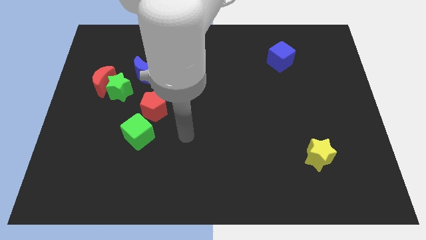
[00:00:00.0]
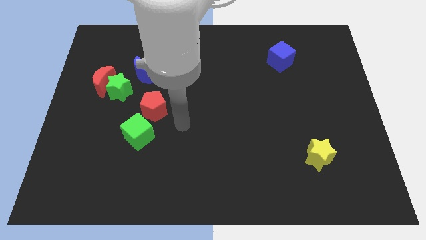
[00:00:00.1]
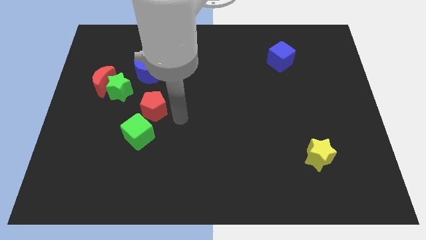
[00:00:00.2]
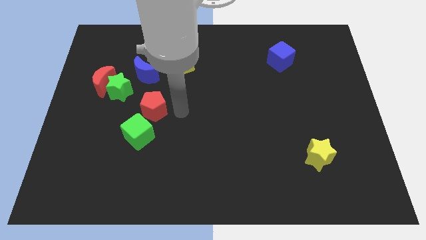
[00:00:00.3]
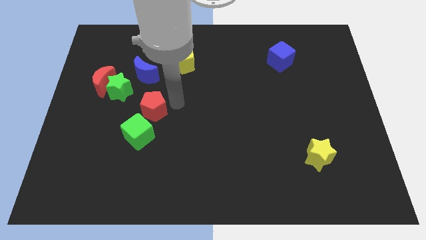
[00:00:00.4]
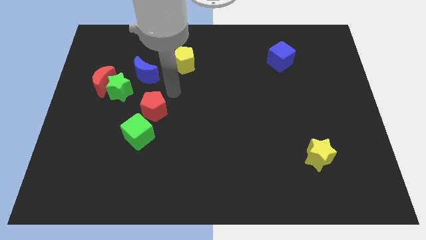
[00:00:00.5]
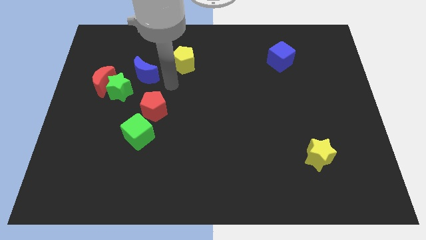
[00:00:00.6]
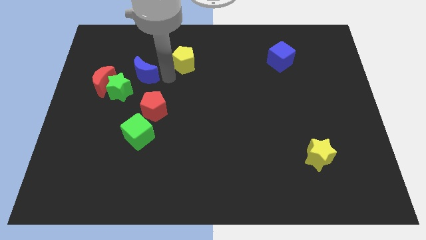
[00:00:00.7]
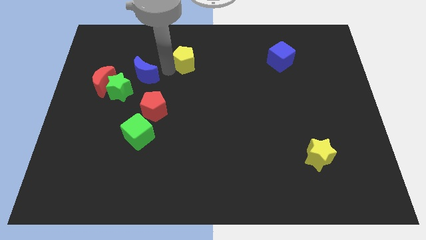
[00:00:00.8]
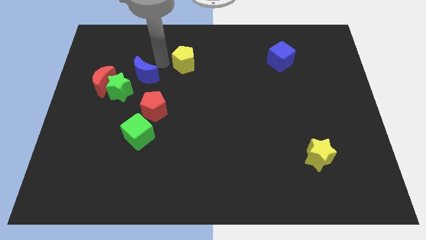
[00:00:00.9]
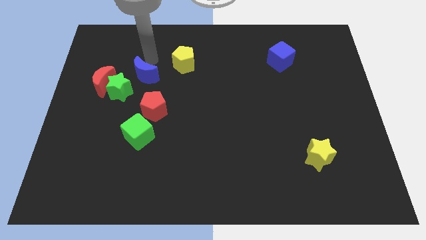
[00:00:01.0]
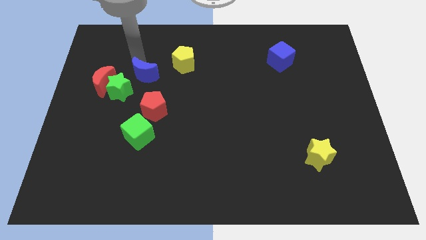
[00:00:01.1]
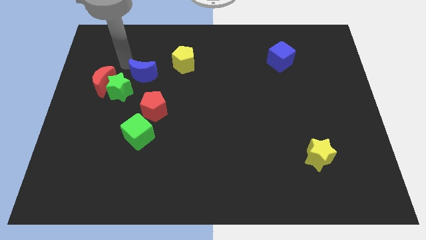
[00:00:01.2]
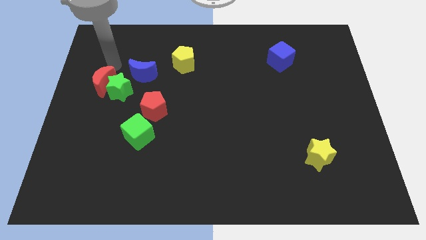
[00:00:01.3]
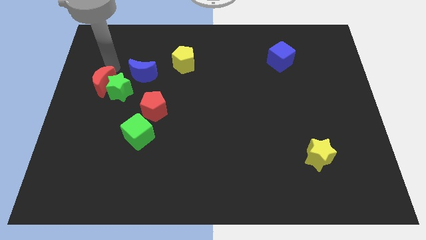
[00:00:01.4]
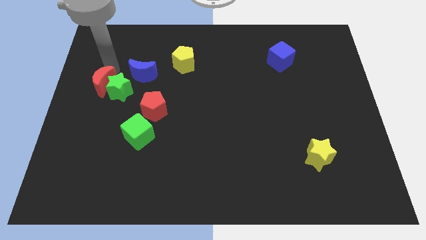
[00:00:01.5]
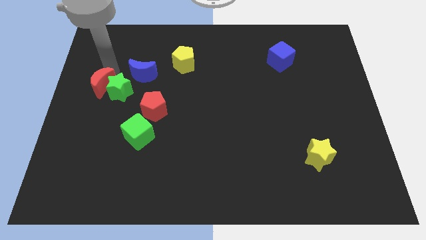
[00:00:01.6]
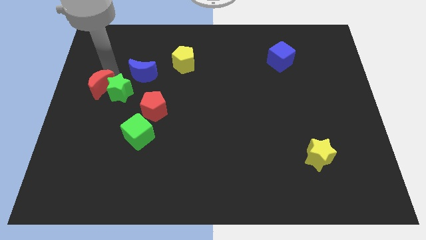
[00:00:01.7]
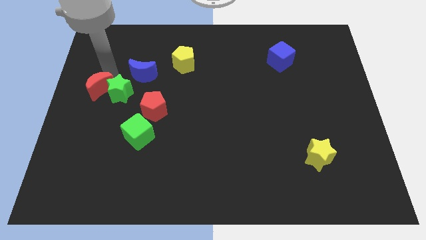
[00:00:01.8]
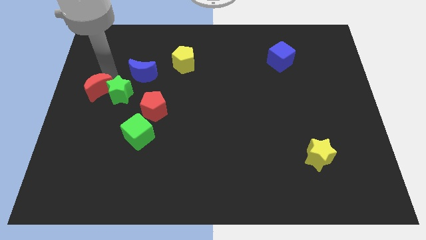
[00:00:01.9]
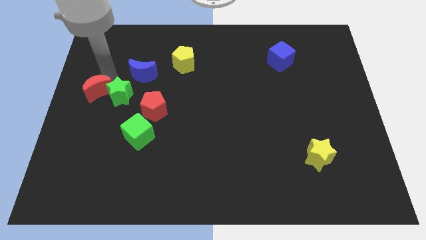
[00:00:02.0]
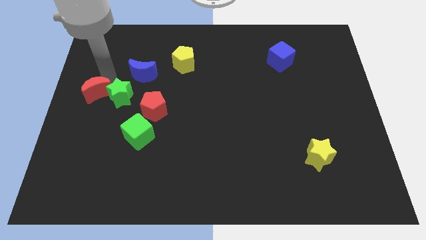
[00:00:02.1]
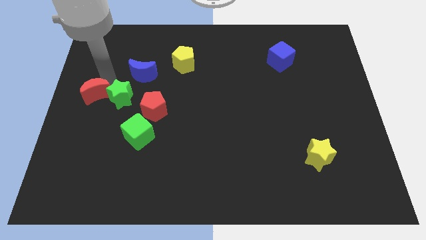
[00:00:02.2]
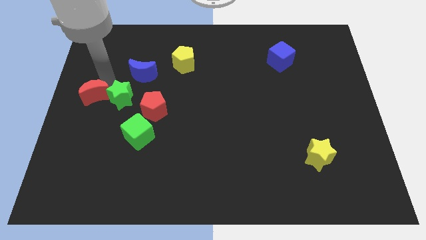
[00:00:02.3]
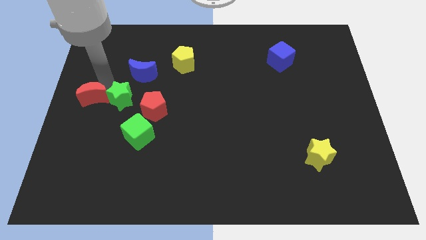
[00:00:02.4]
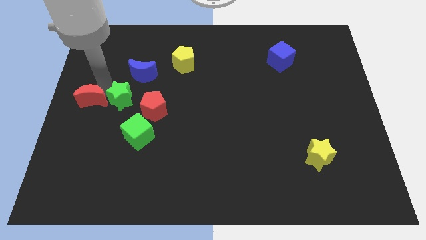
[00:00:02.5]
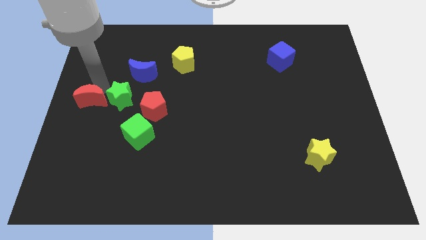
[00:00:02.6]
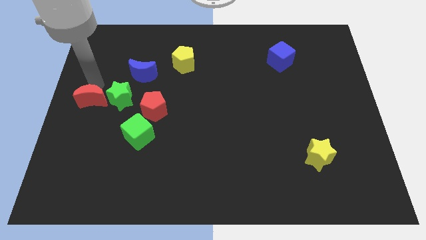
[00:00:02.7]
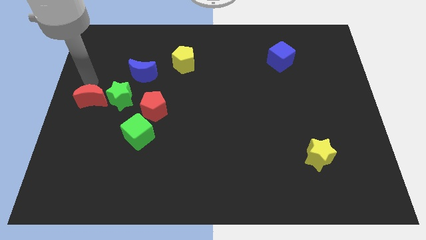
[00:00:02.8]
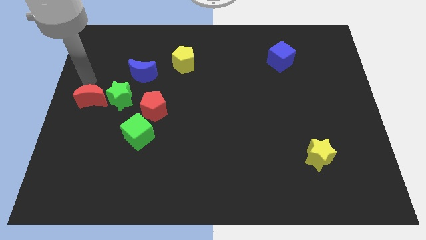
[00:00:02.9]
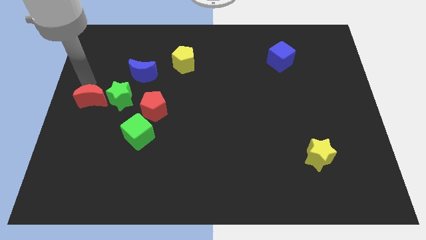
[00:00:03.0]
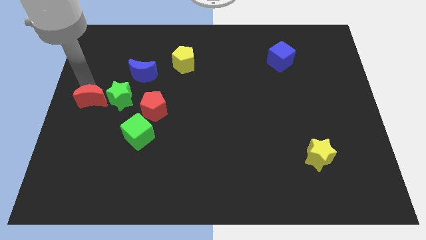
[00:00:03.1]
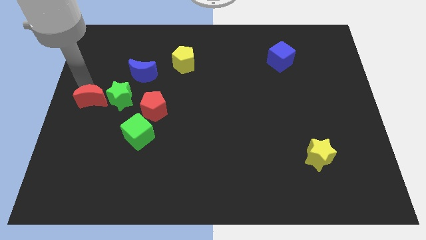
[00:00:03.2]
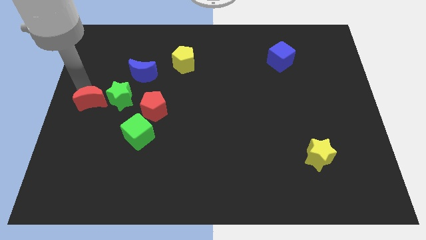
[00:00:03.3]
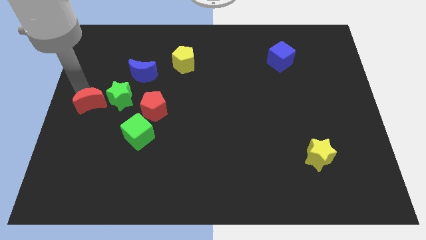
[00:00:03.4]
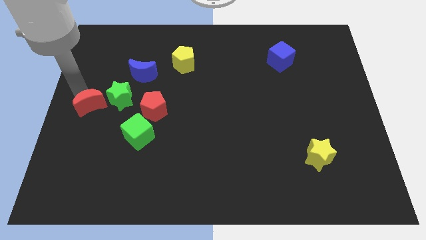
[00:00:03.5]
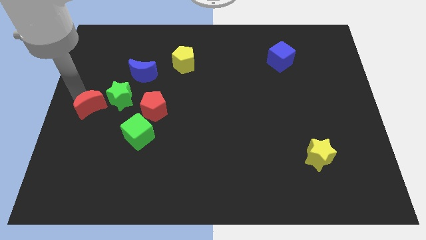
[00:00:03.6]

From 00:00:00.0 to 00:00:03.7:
move the red moon a bit downwards

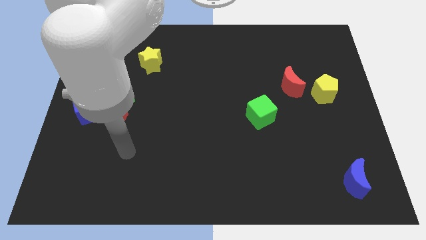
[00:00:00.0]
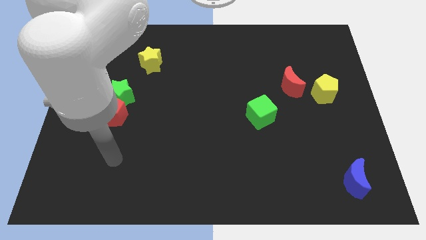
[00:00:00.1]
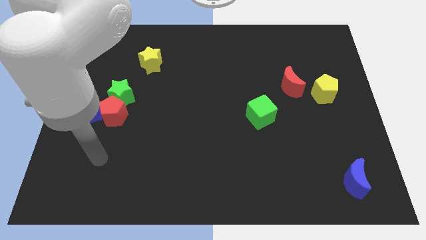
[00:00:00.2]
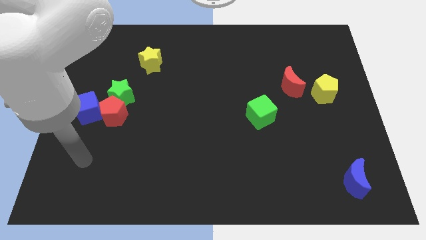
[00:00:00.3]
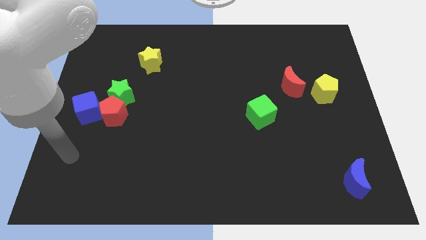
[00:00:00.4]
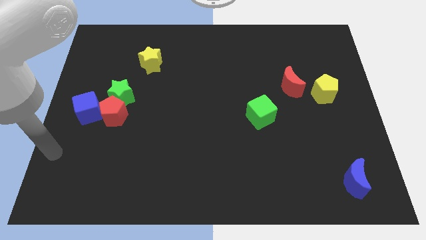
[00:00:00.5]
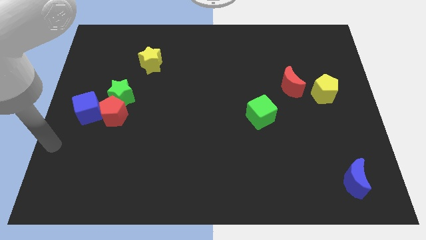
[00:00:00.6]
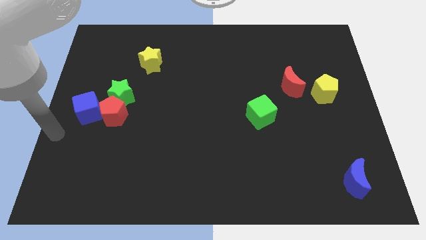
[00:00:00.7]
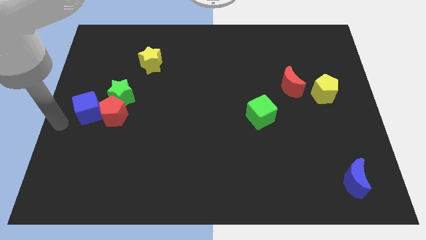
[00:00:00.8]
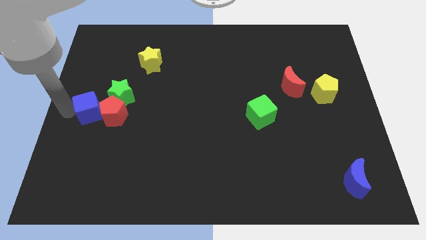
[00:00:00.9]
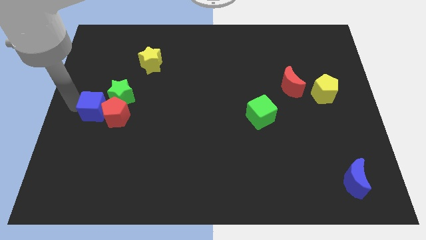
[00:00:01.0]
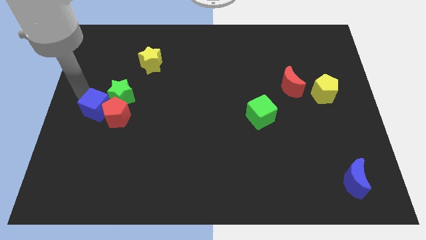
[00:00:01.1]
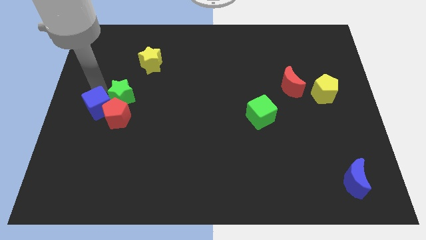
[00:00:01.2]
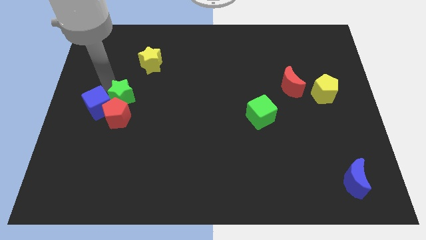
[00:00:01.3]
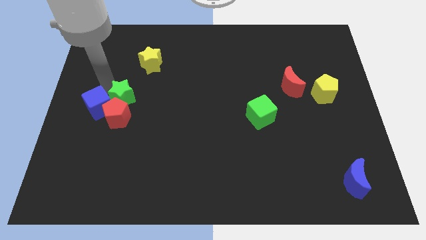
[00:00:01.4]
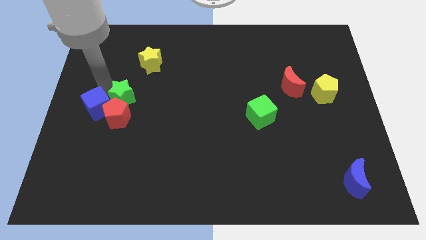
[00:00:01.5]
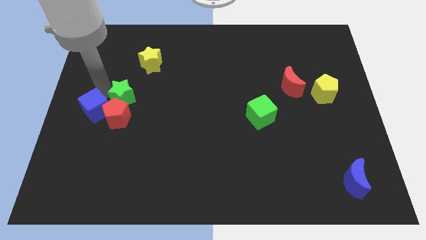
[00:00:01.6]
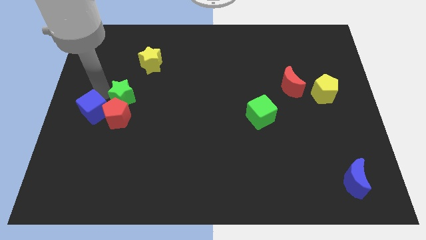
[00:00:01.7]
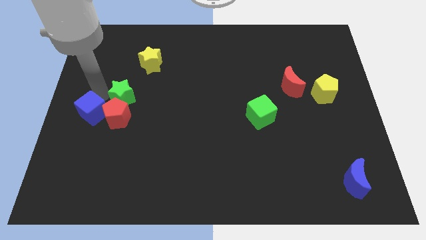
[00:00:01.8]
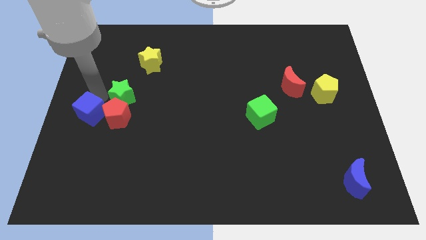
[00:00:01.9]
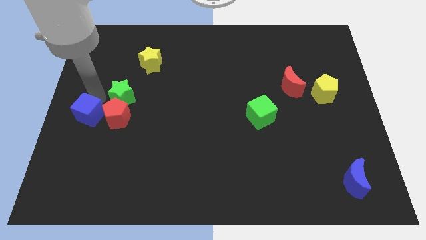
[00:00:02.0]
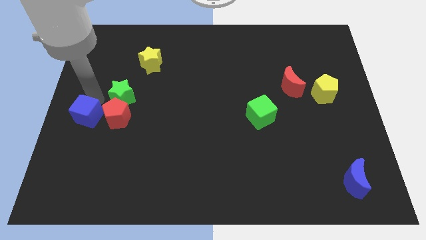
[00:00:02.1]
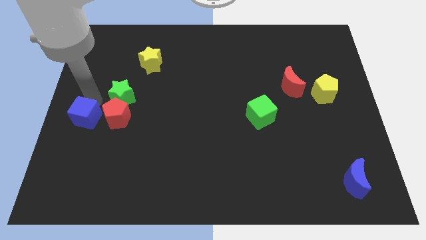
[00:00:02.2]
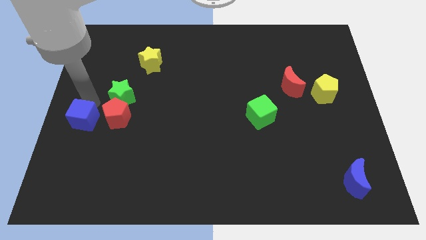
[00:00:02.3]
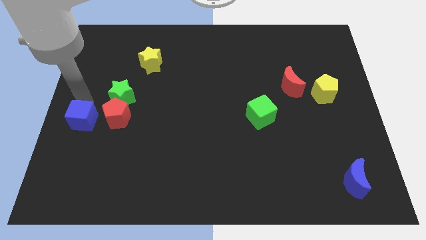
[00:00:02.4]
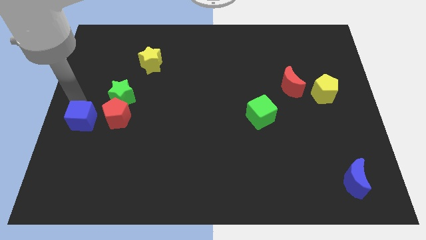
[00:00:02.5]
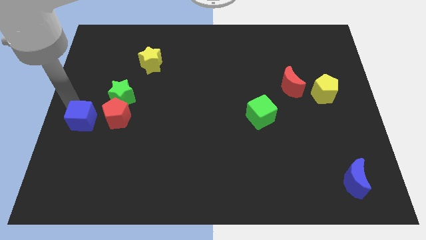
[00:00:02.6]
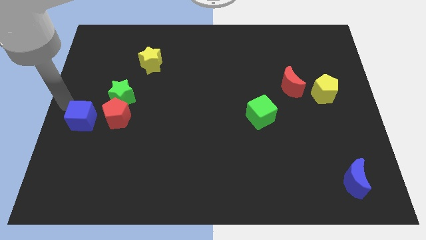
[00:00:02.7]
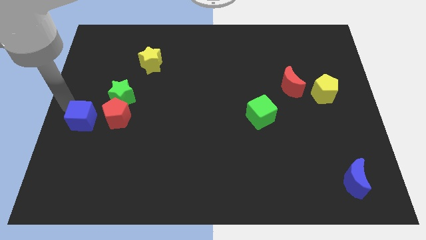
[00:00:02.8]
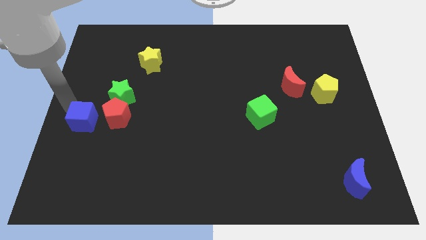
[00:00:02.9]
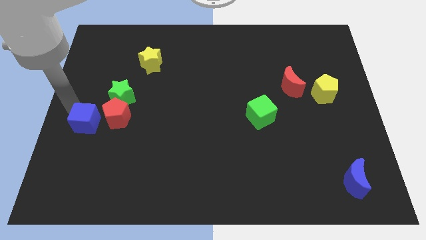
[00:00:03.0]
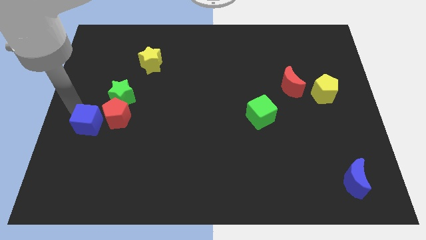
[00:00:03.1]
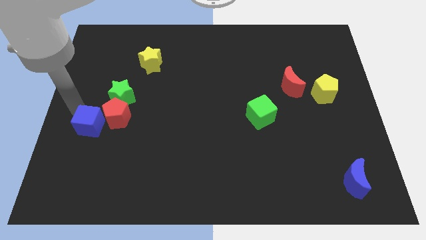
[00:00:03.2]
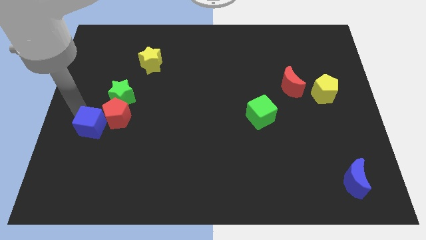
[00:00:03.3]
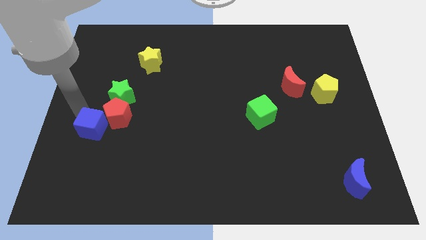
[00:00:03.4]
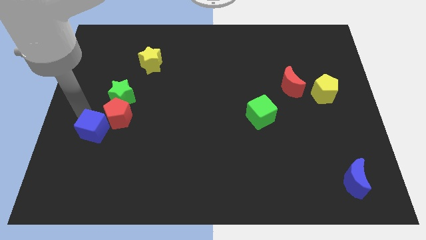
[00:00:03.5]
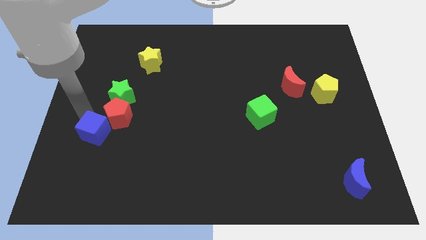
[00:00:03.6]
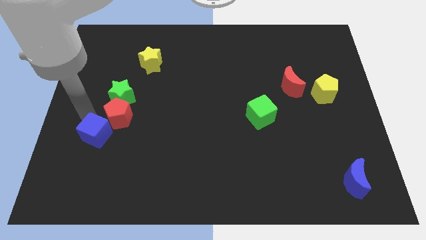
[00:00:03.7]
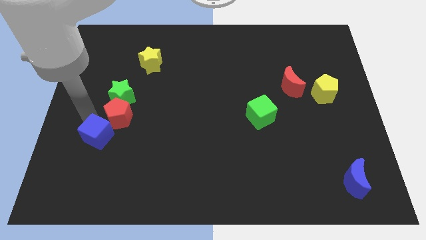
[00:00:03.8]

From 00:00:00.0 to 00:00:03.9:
slightly push the blue cube down and then to the right

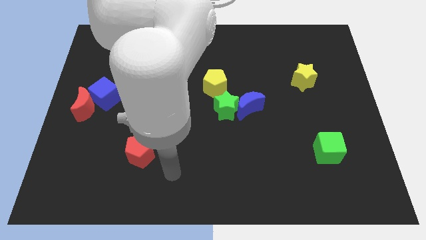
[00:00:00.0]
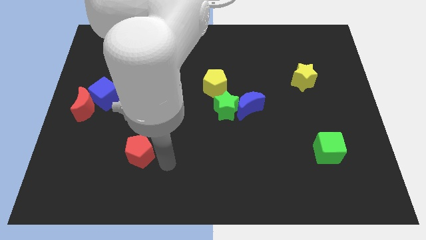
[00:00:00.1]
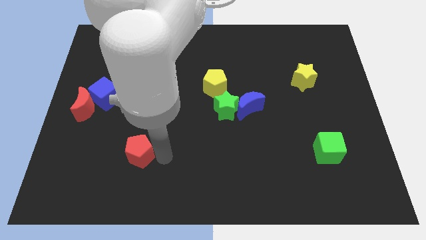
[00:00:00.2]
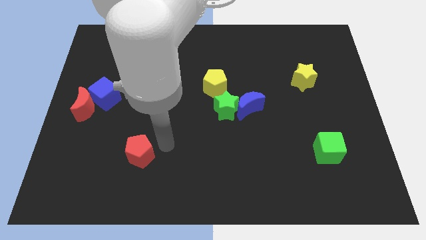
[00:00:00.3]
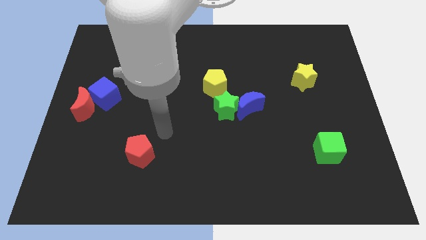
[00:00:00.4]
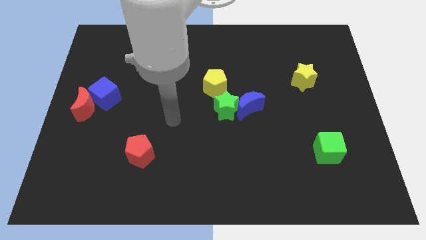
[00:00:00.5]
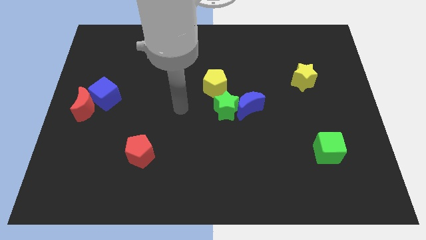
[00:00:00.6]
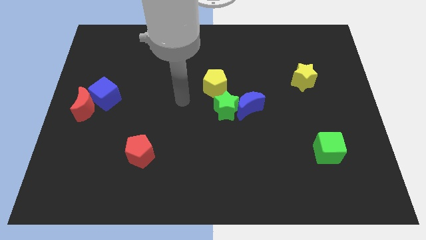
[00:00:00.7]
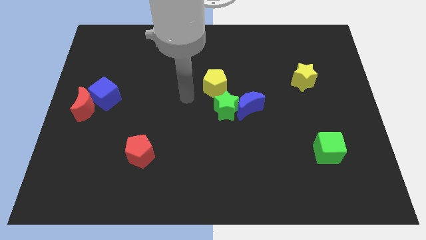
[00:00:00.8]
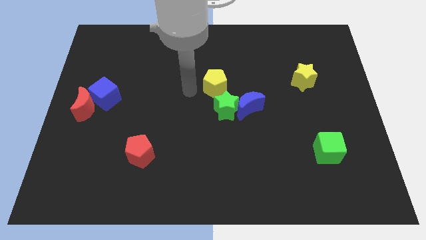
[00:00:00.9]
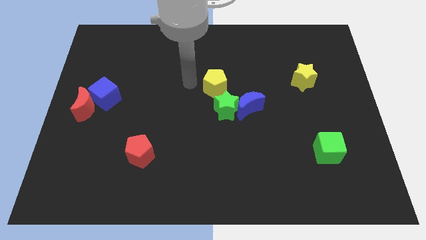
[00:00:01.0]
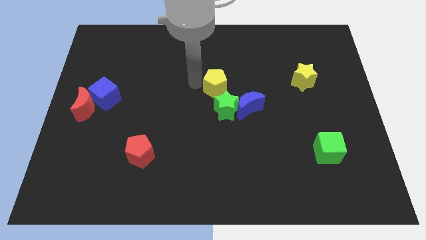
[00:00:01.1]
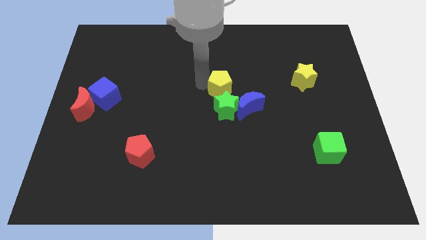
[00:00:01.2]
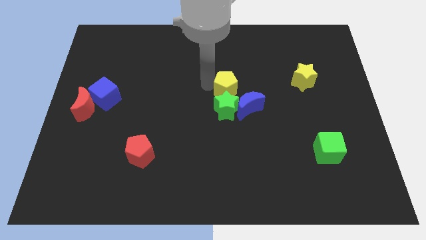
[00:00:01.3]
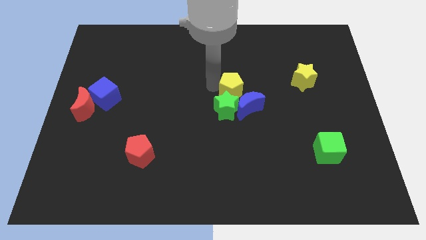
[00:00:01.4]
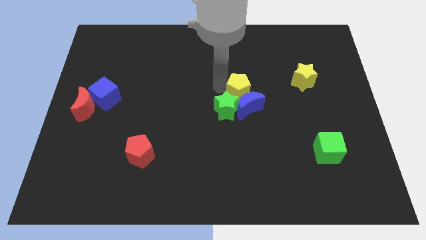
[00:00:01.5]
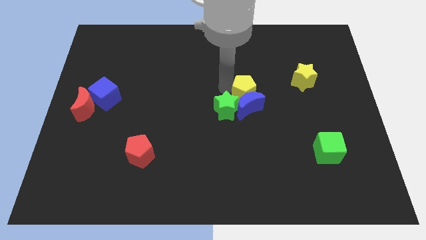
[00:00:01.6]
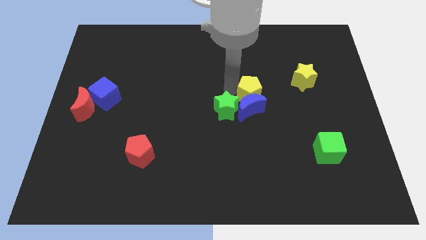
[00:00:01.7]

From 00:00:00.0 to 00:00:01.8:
push the yellow pentagon downwards and then right a bit
